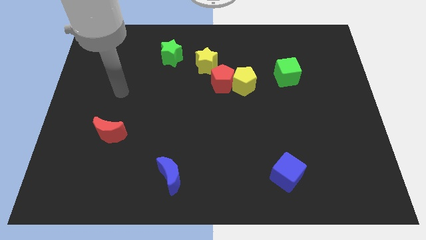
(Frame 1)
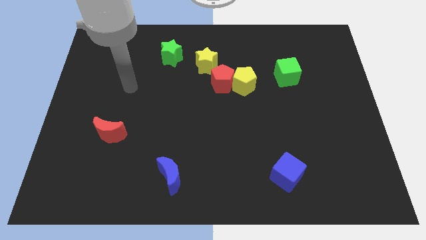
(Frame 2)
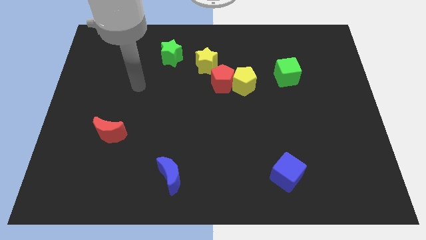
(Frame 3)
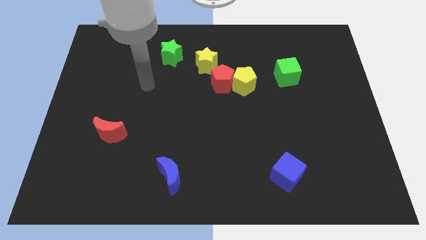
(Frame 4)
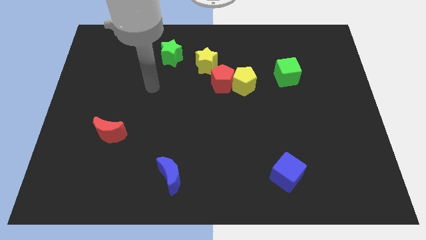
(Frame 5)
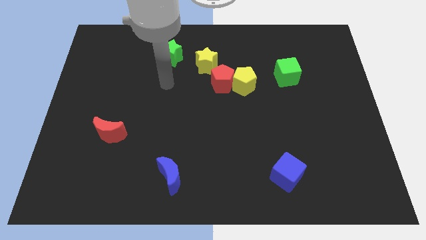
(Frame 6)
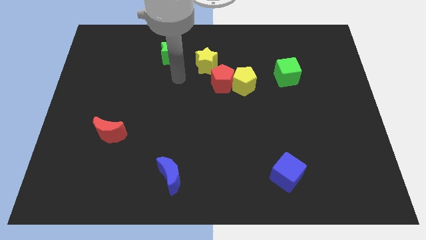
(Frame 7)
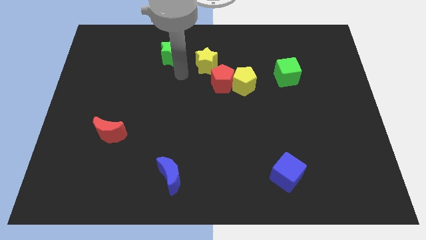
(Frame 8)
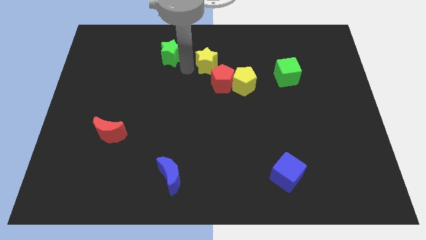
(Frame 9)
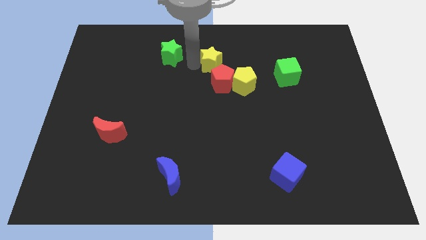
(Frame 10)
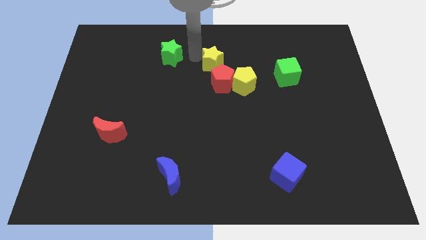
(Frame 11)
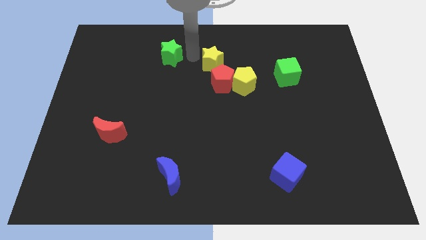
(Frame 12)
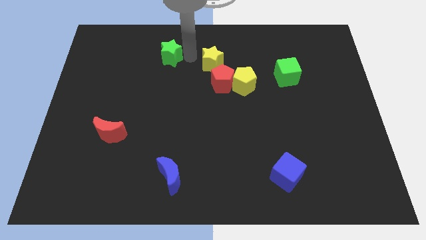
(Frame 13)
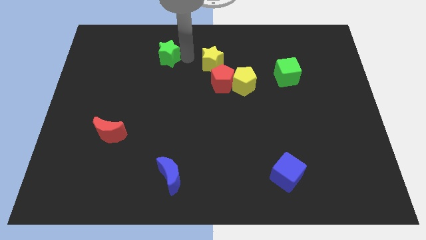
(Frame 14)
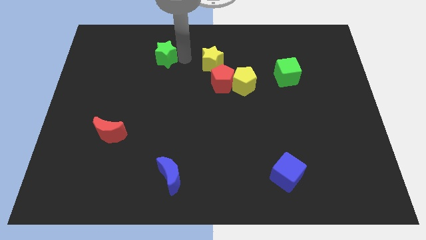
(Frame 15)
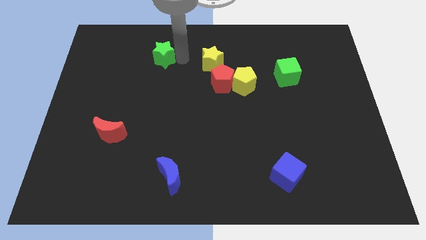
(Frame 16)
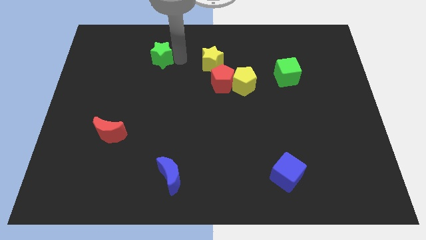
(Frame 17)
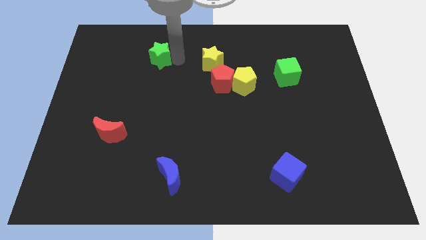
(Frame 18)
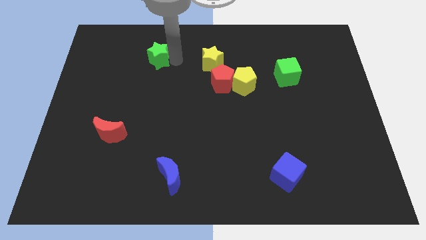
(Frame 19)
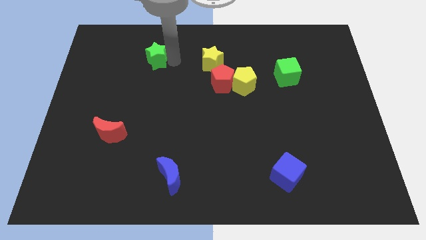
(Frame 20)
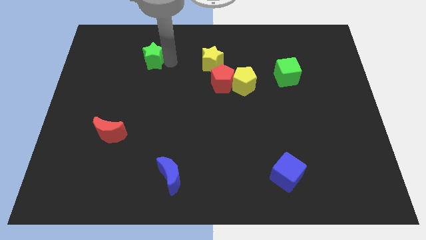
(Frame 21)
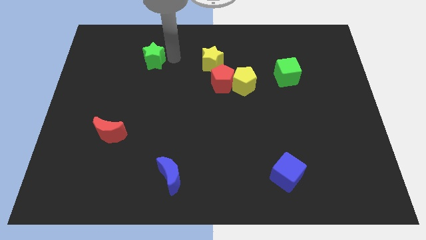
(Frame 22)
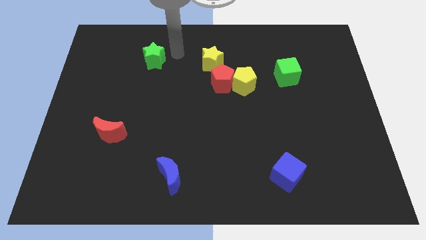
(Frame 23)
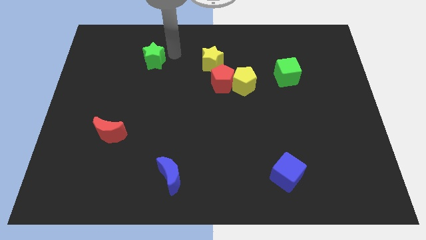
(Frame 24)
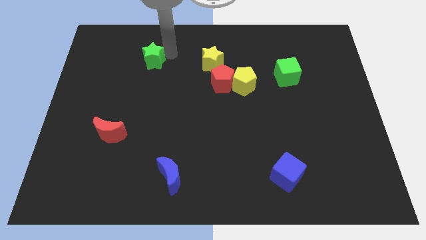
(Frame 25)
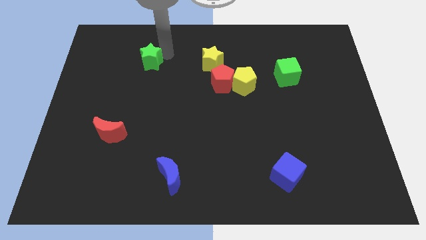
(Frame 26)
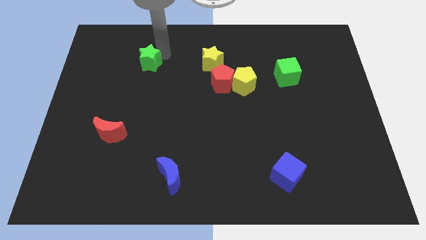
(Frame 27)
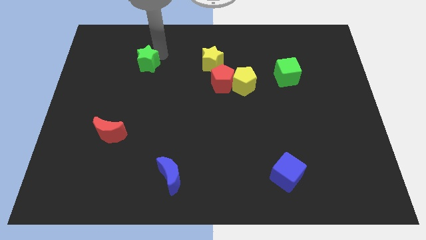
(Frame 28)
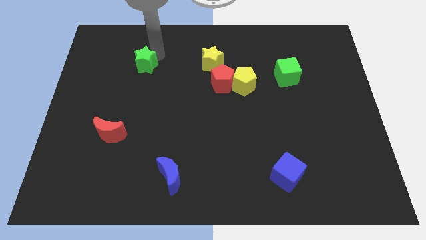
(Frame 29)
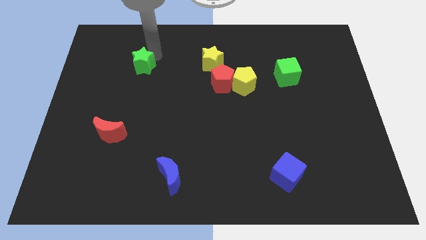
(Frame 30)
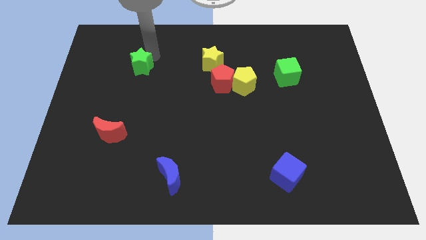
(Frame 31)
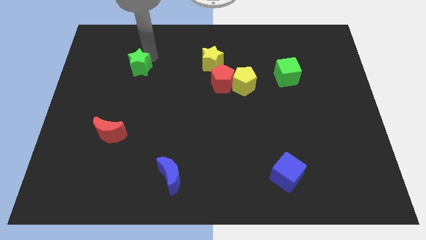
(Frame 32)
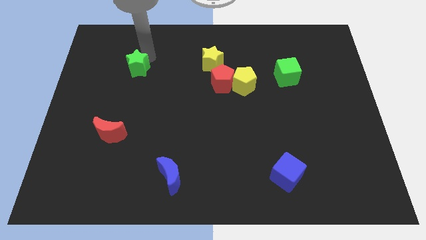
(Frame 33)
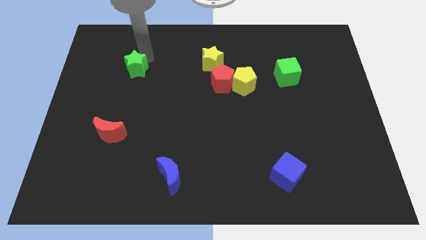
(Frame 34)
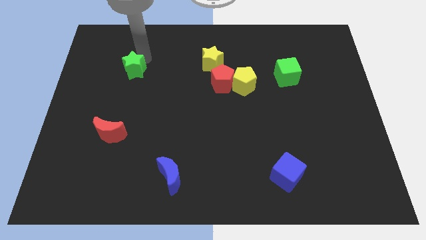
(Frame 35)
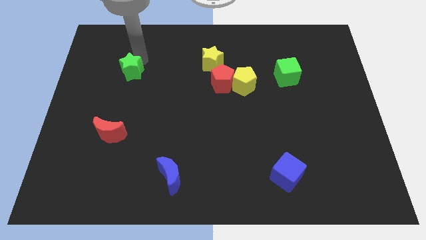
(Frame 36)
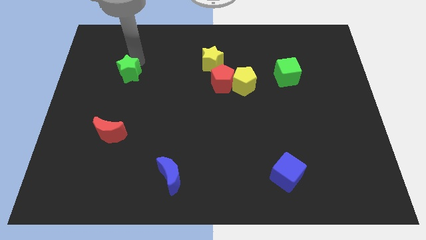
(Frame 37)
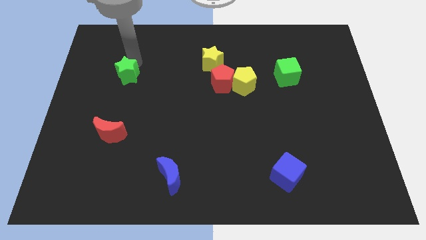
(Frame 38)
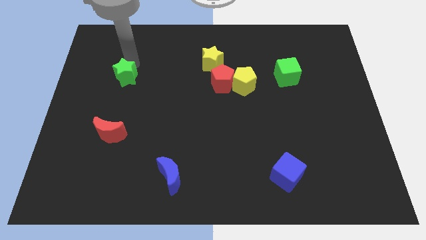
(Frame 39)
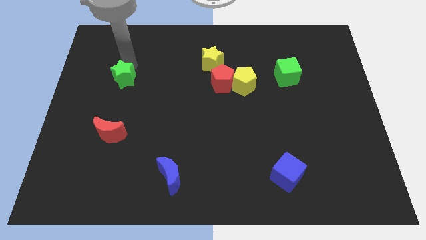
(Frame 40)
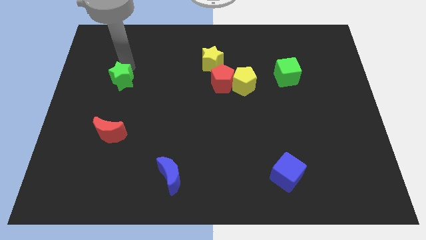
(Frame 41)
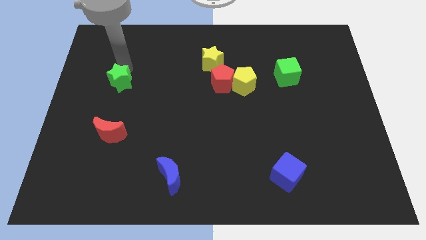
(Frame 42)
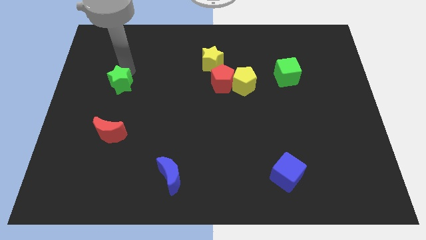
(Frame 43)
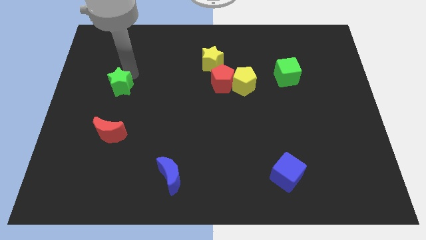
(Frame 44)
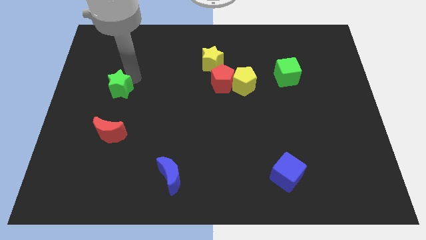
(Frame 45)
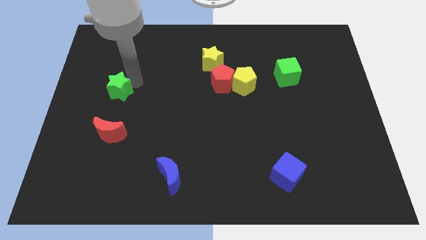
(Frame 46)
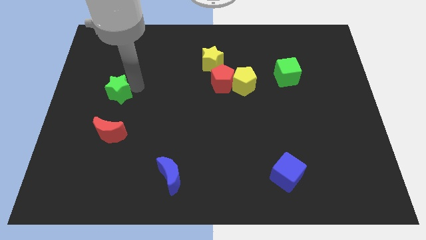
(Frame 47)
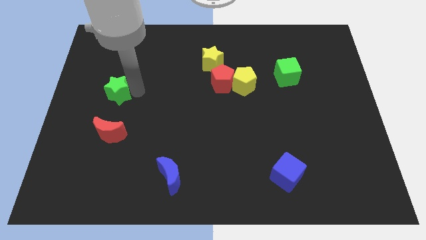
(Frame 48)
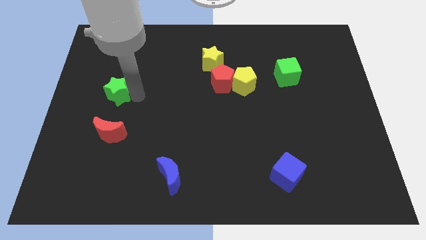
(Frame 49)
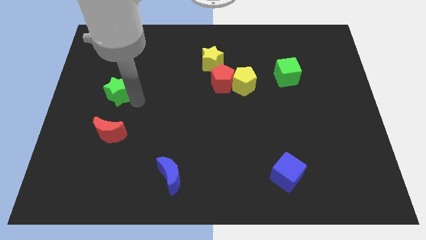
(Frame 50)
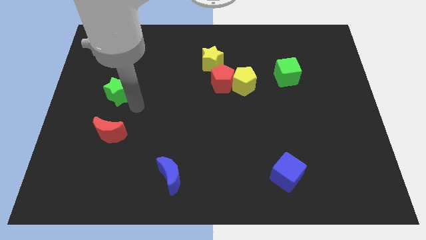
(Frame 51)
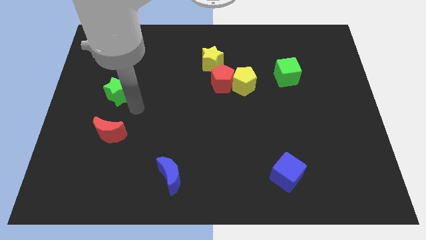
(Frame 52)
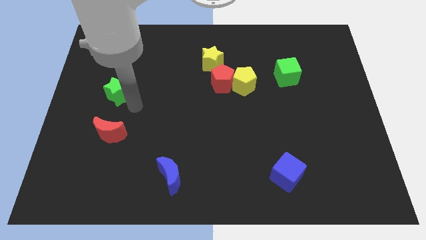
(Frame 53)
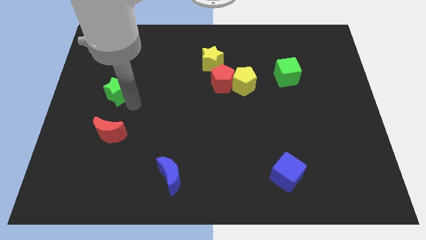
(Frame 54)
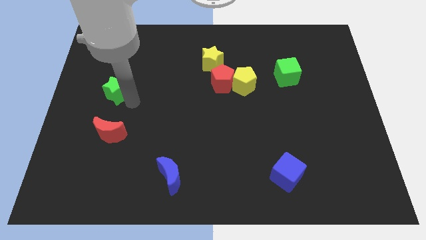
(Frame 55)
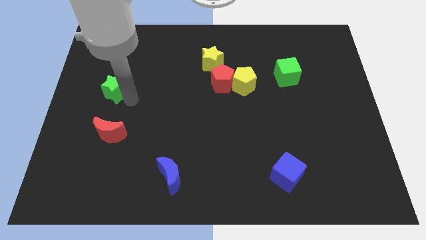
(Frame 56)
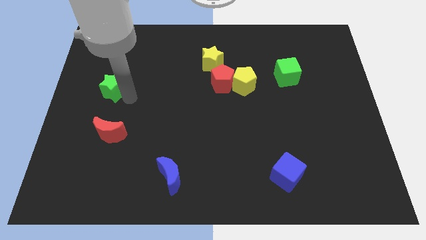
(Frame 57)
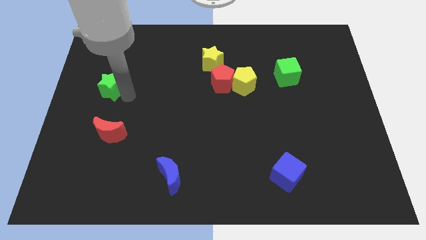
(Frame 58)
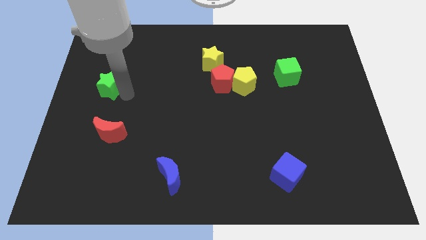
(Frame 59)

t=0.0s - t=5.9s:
put the green star to the left side
